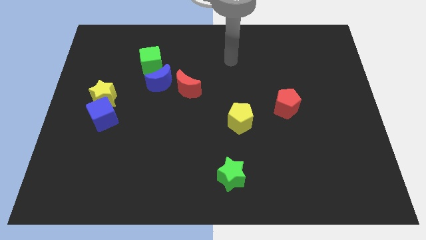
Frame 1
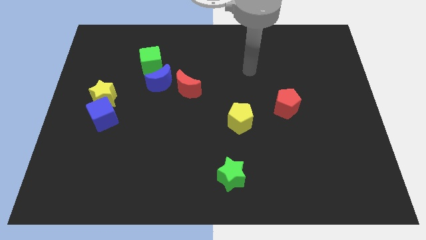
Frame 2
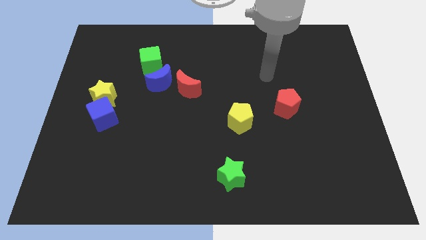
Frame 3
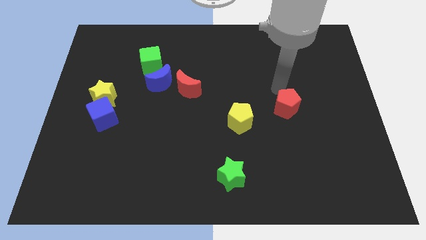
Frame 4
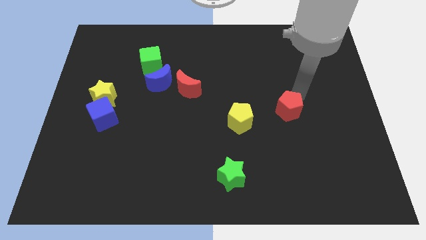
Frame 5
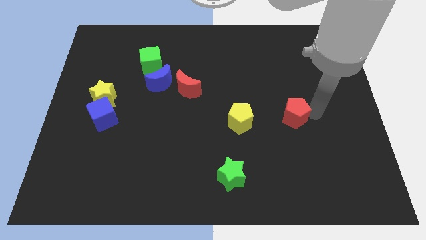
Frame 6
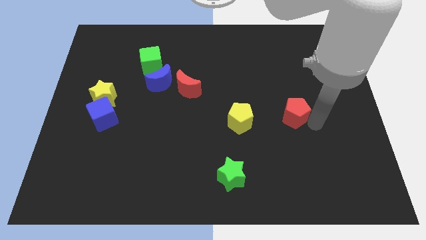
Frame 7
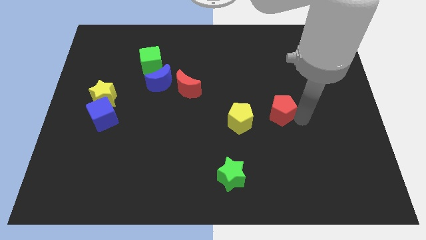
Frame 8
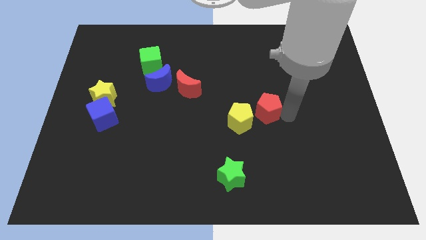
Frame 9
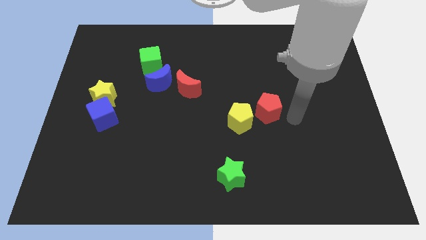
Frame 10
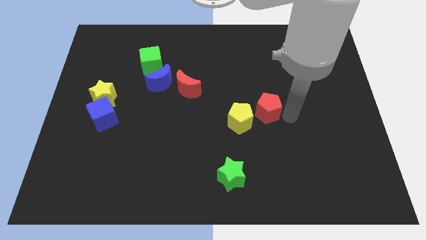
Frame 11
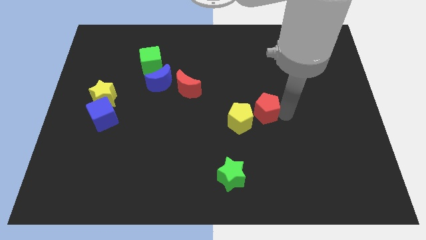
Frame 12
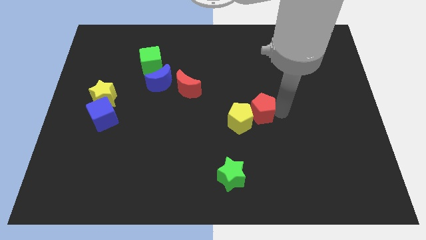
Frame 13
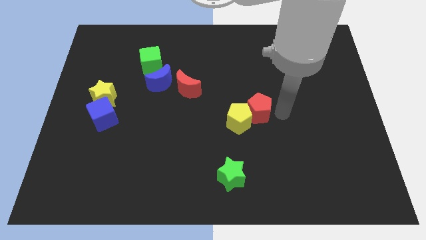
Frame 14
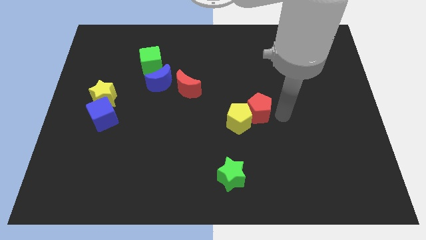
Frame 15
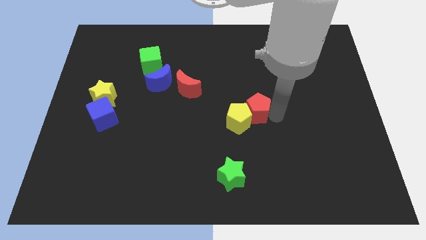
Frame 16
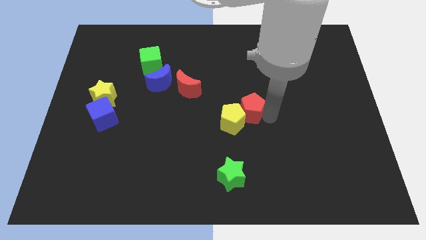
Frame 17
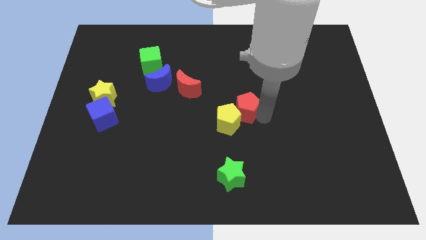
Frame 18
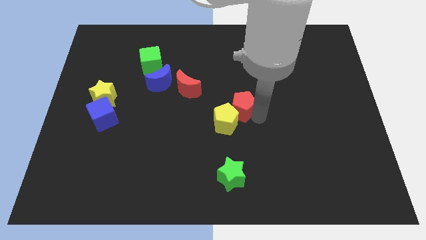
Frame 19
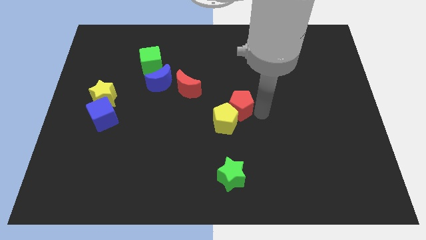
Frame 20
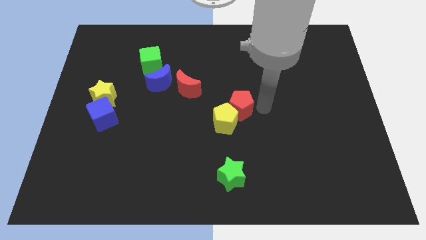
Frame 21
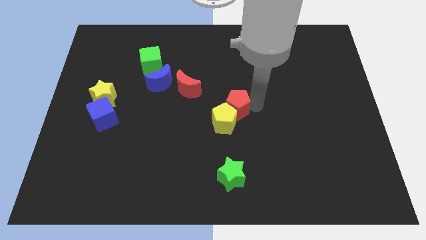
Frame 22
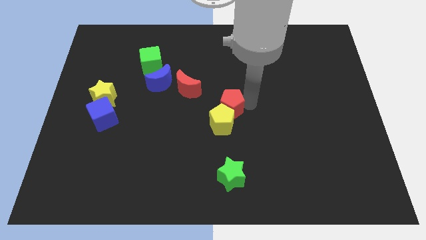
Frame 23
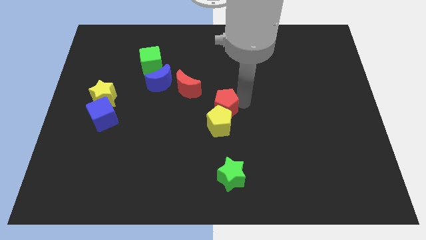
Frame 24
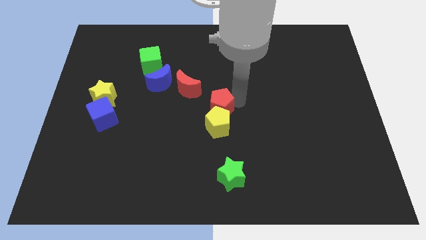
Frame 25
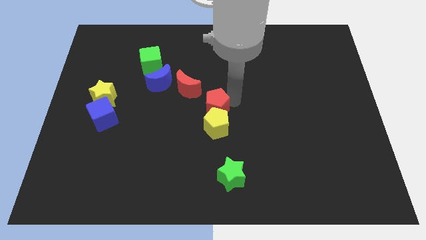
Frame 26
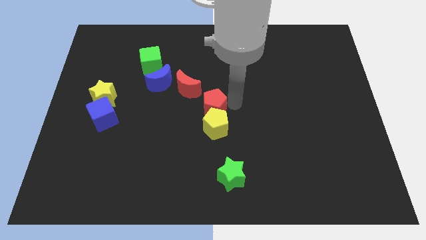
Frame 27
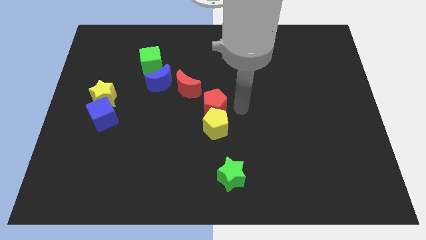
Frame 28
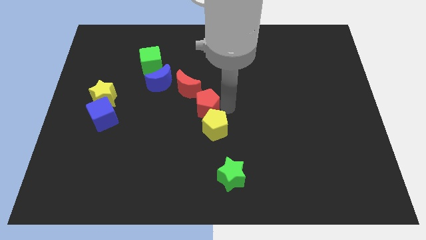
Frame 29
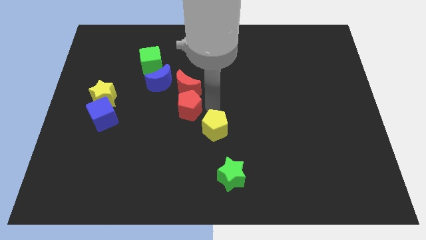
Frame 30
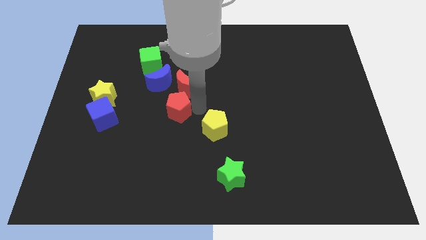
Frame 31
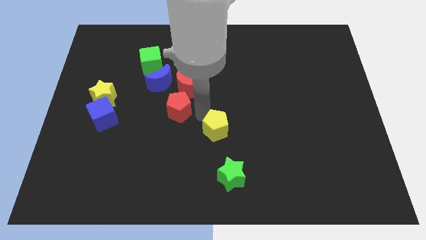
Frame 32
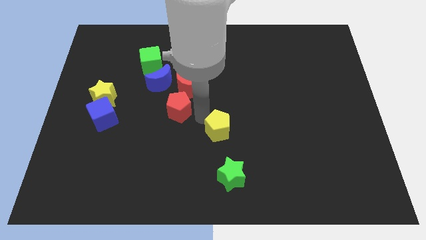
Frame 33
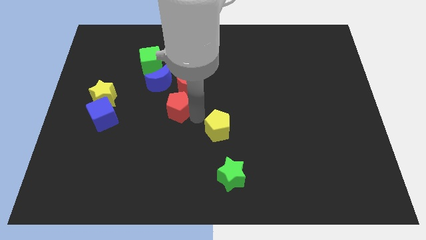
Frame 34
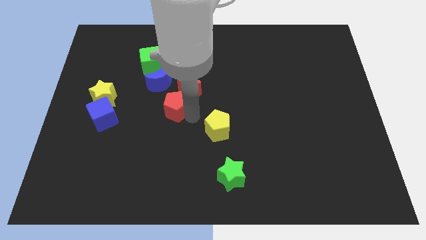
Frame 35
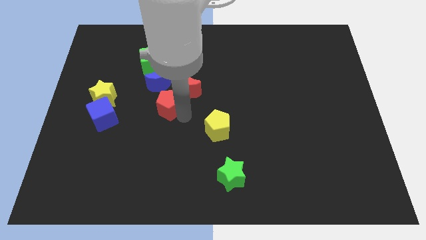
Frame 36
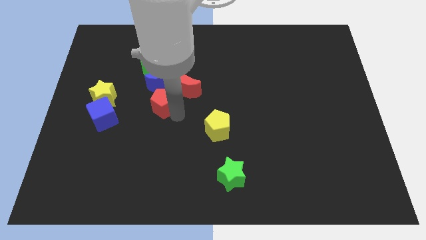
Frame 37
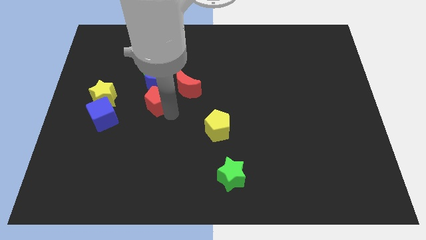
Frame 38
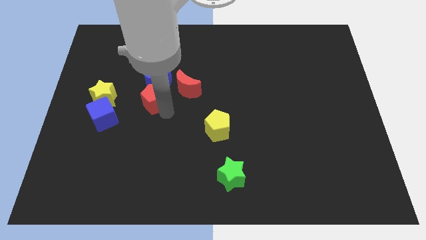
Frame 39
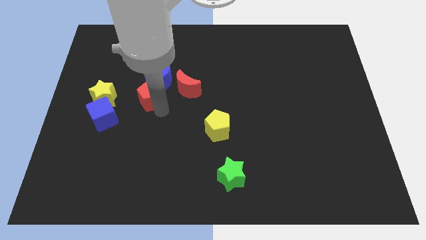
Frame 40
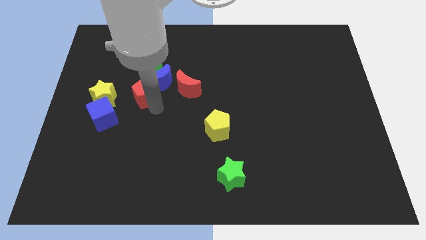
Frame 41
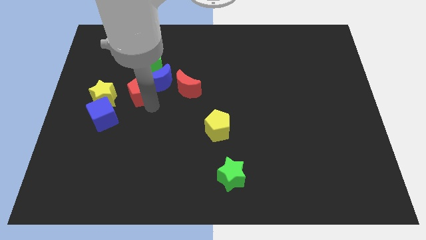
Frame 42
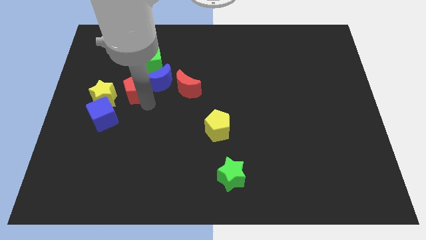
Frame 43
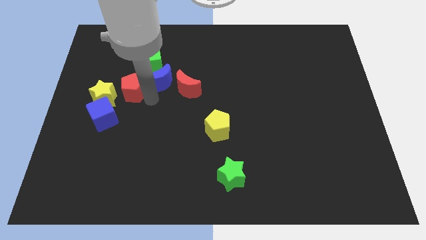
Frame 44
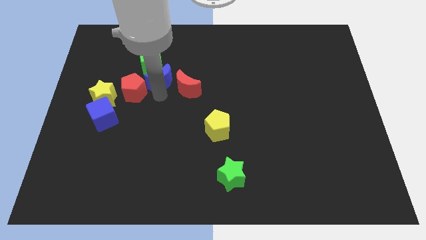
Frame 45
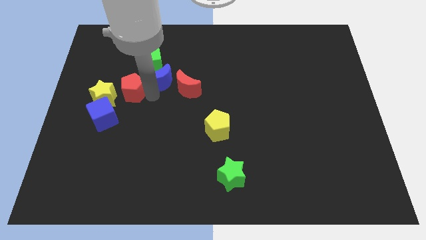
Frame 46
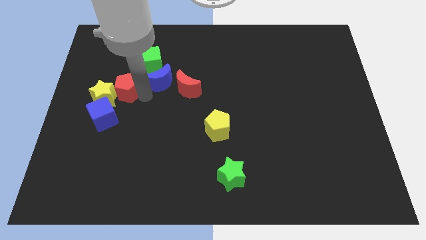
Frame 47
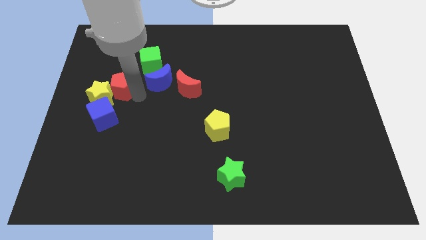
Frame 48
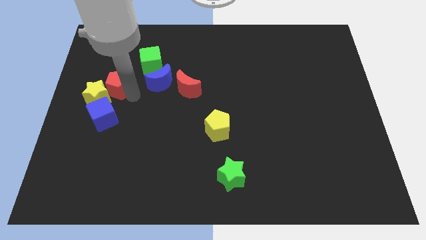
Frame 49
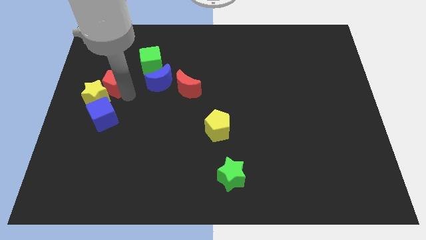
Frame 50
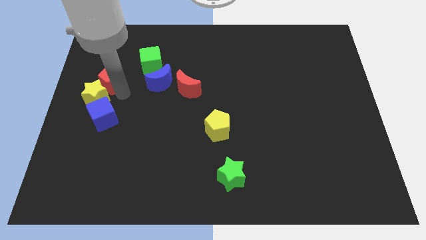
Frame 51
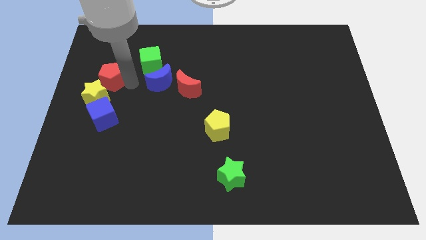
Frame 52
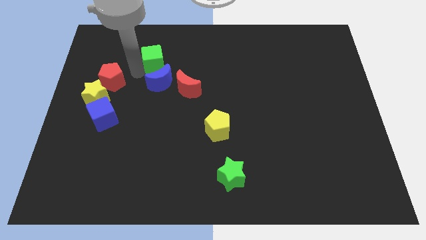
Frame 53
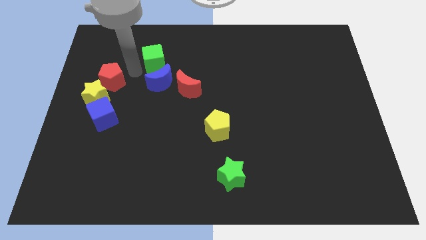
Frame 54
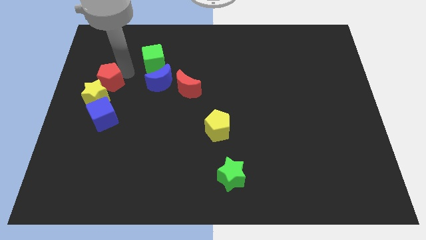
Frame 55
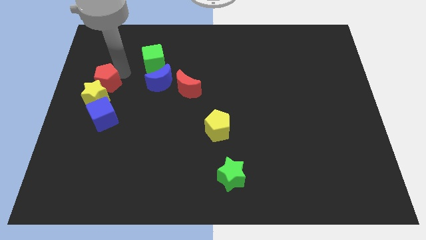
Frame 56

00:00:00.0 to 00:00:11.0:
slide the red pentagon to the left side

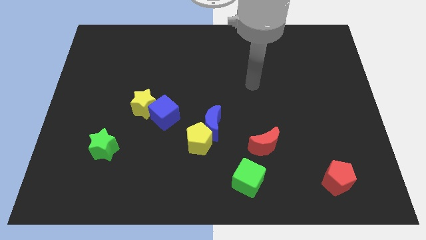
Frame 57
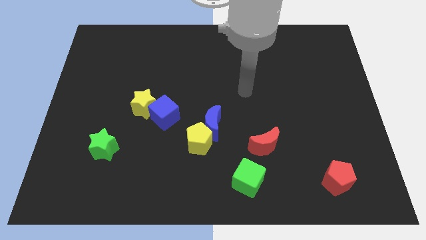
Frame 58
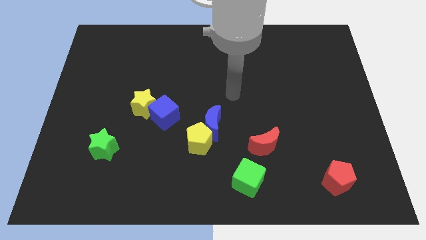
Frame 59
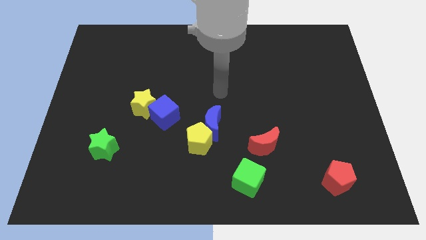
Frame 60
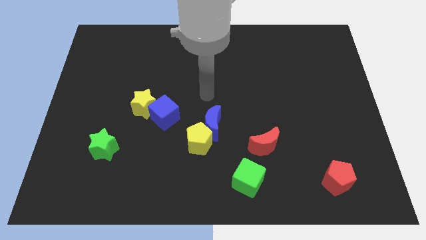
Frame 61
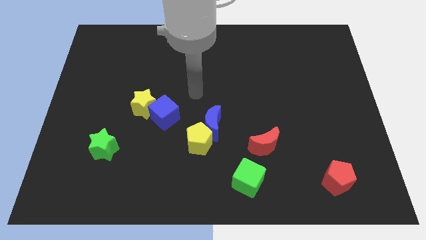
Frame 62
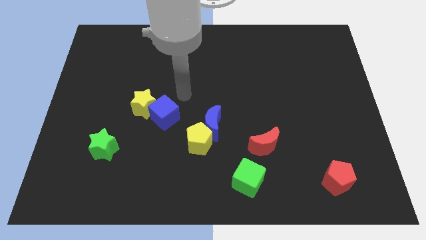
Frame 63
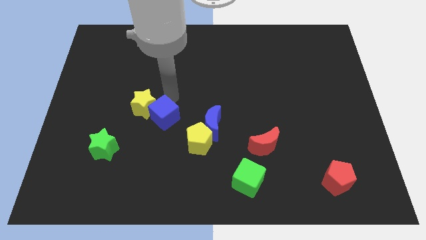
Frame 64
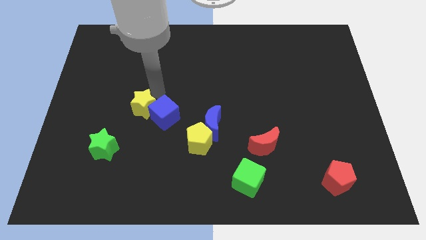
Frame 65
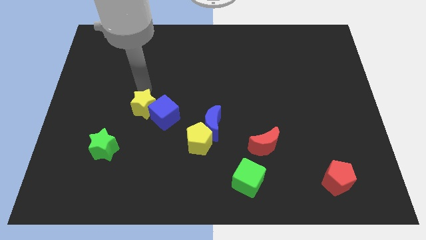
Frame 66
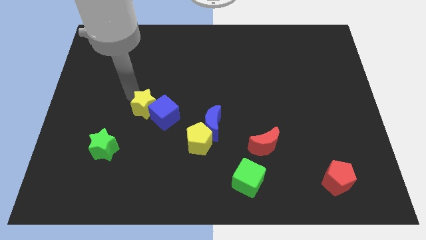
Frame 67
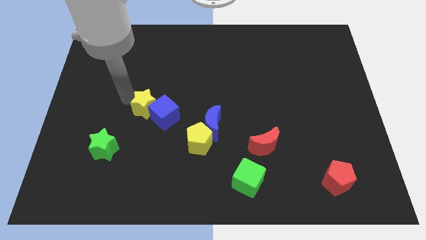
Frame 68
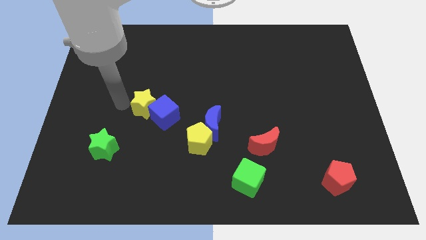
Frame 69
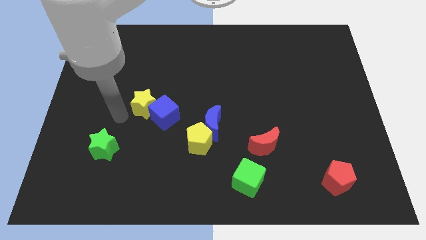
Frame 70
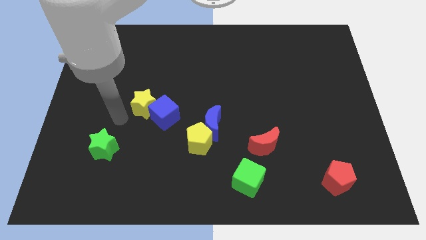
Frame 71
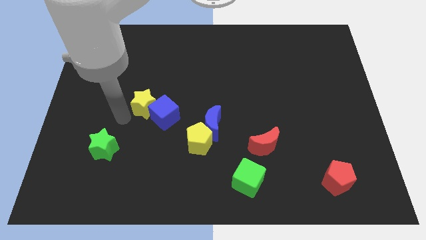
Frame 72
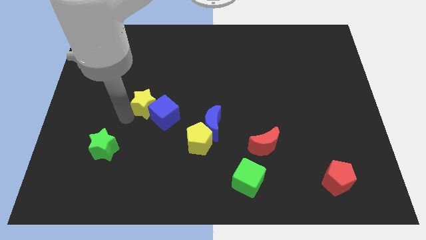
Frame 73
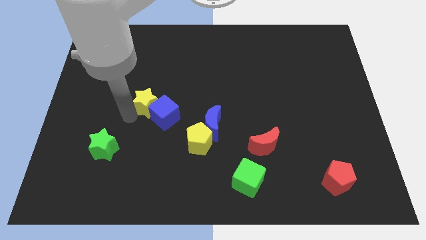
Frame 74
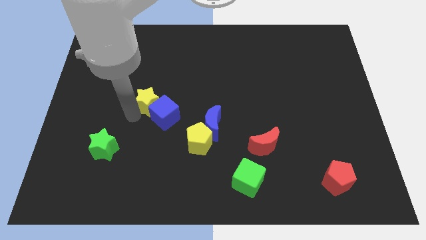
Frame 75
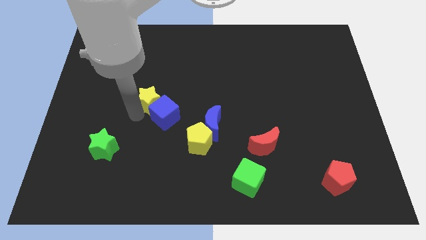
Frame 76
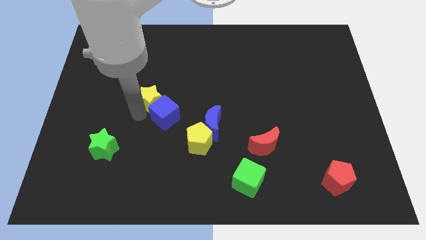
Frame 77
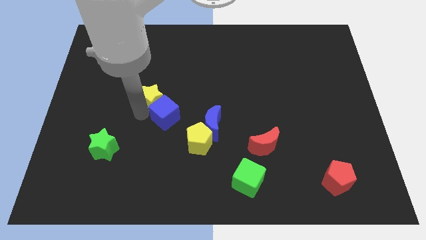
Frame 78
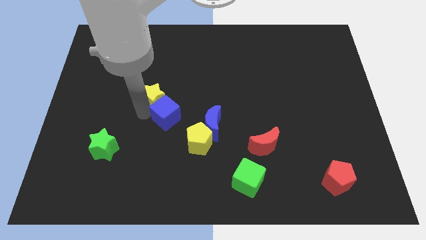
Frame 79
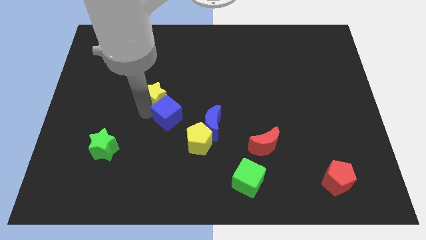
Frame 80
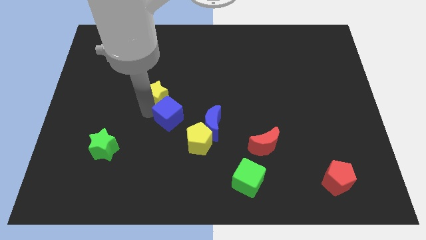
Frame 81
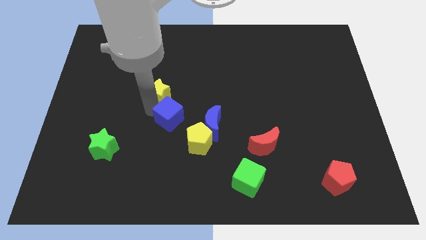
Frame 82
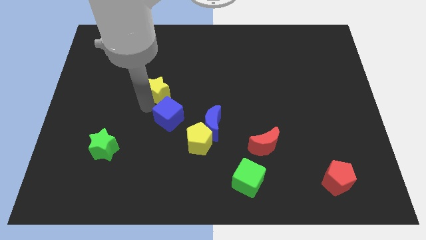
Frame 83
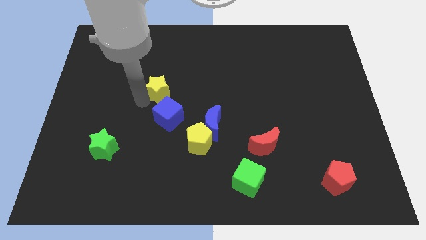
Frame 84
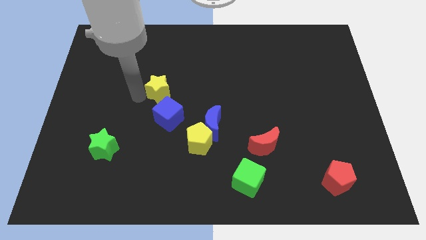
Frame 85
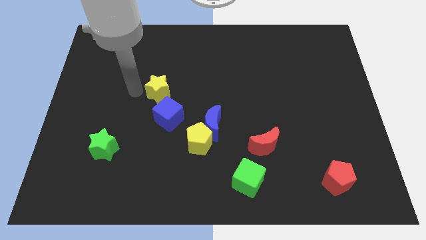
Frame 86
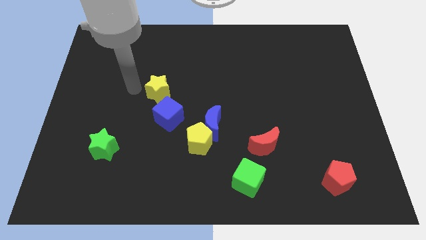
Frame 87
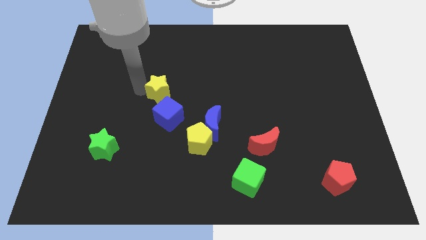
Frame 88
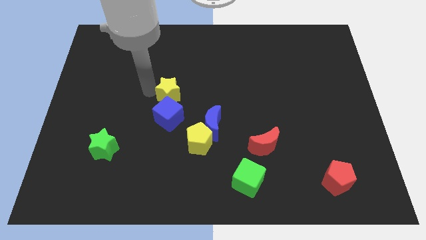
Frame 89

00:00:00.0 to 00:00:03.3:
move the yellow star to the middle of the board
